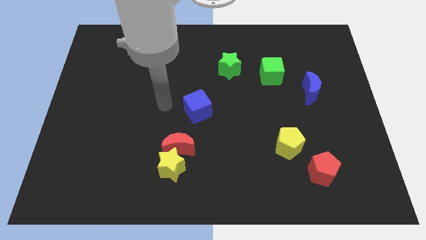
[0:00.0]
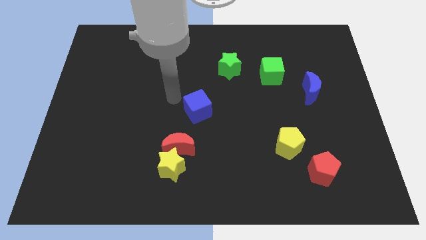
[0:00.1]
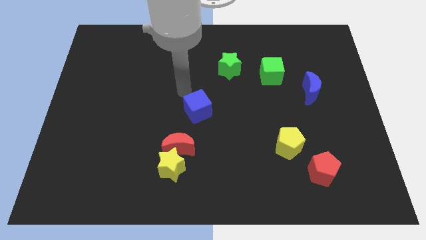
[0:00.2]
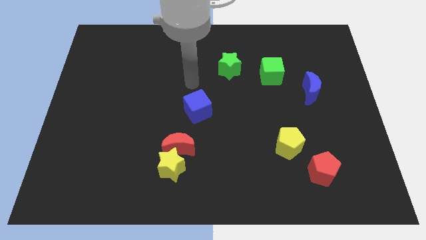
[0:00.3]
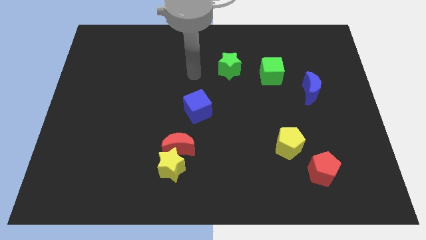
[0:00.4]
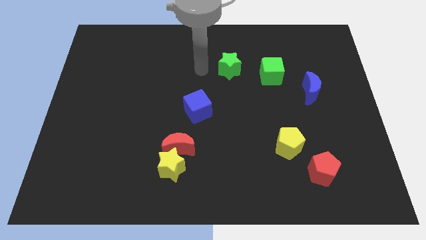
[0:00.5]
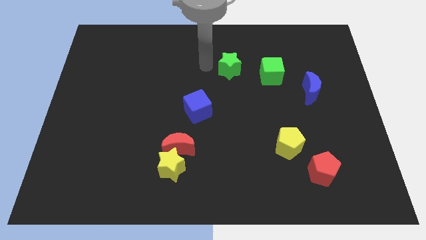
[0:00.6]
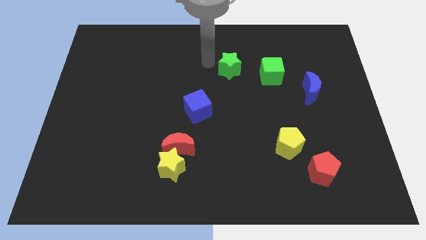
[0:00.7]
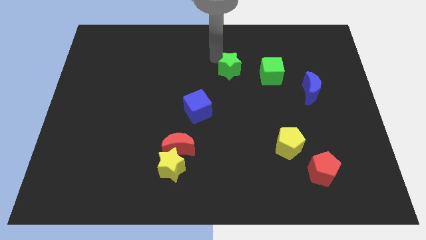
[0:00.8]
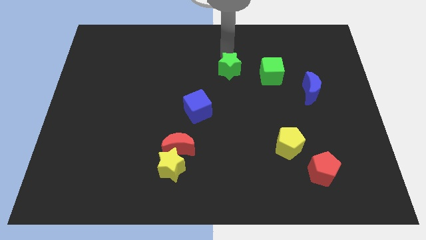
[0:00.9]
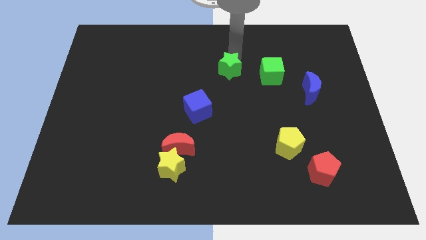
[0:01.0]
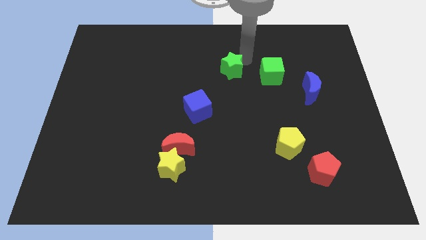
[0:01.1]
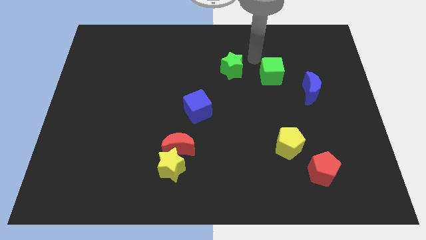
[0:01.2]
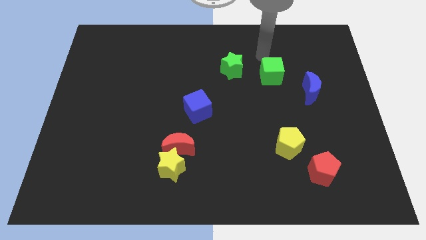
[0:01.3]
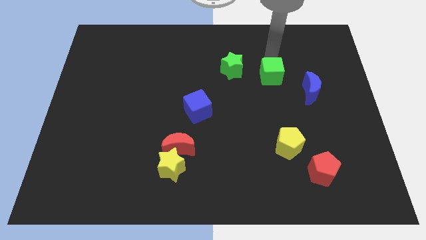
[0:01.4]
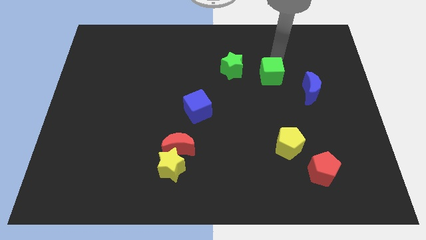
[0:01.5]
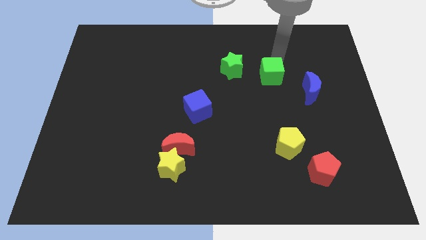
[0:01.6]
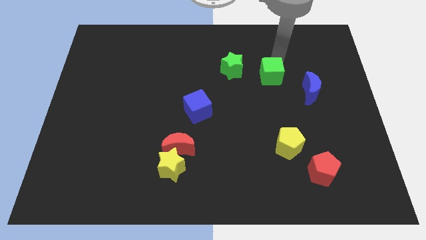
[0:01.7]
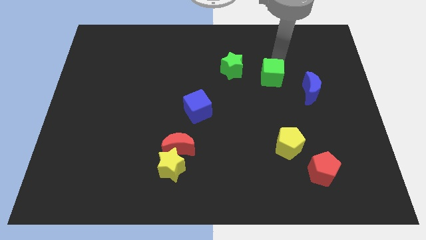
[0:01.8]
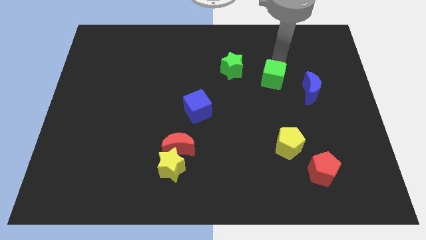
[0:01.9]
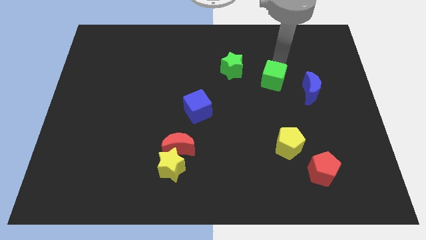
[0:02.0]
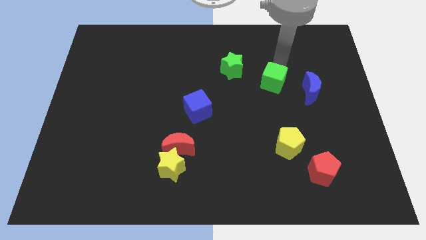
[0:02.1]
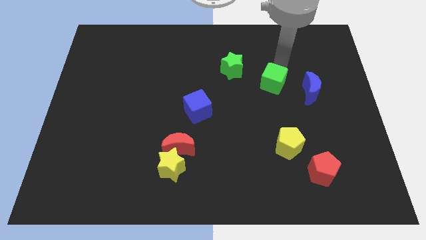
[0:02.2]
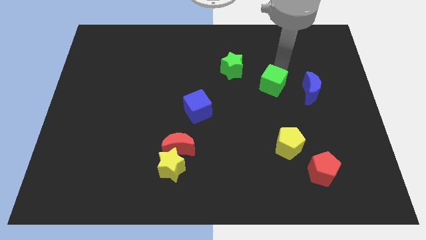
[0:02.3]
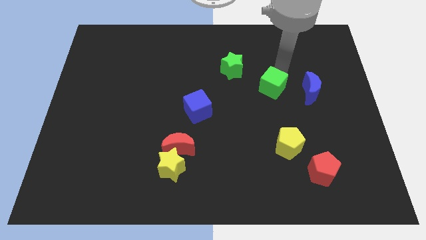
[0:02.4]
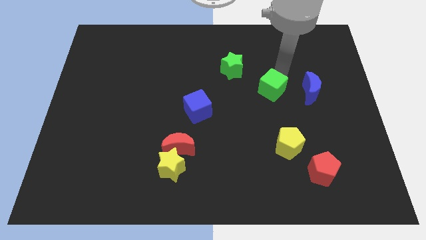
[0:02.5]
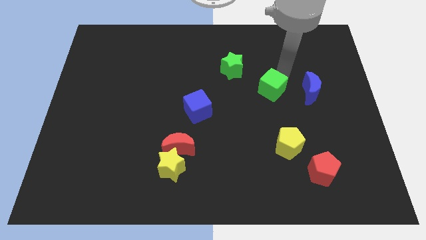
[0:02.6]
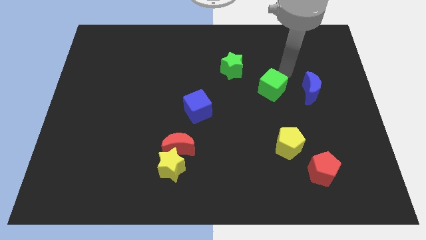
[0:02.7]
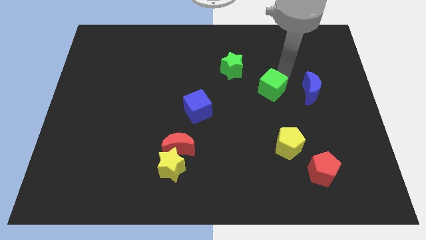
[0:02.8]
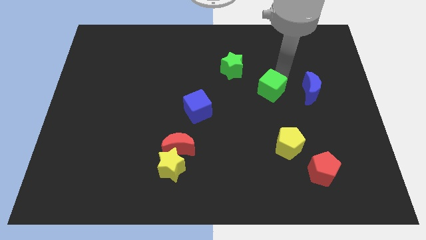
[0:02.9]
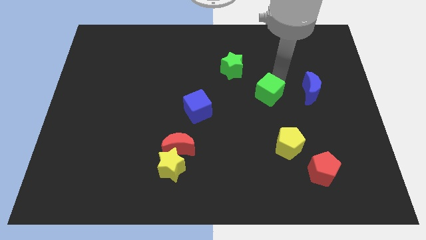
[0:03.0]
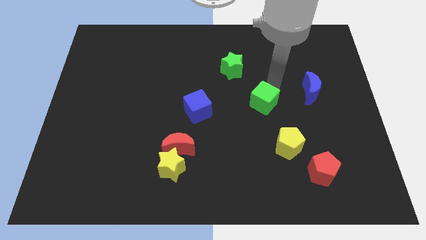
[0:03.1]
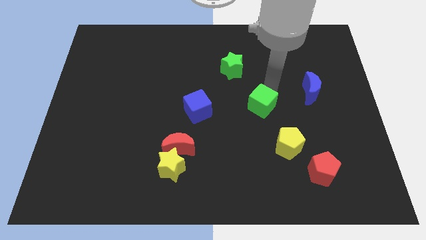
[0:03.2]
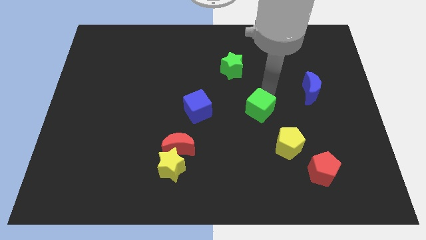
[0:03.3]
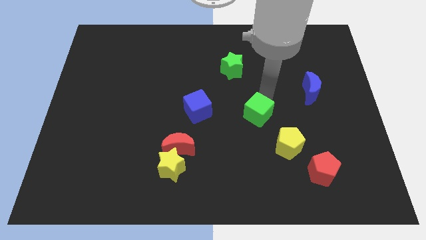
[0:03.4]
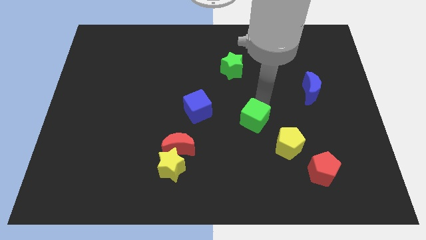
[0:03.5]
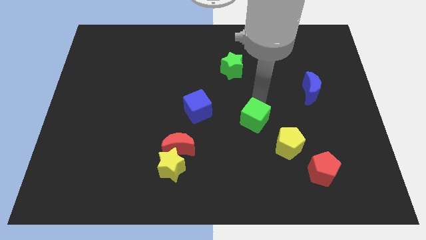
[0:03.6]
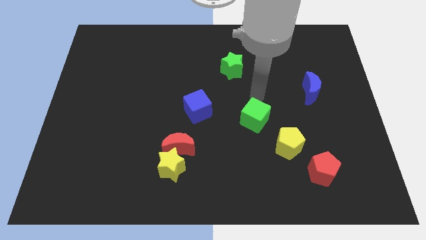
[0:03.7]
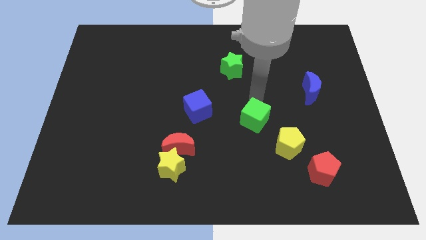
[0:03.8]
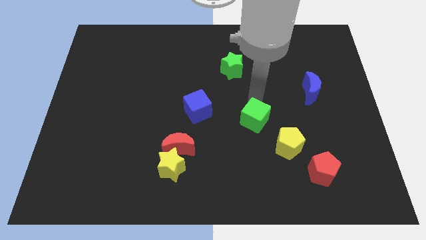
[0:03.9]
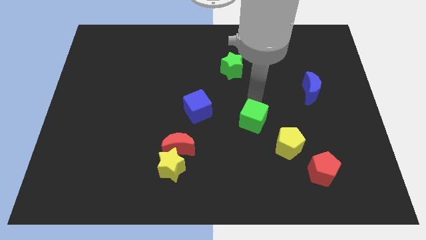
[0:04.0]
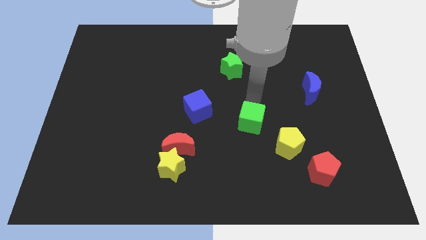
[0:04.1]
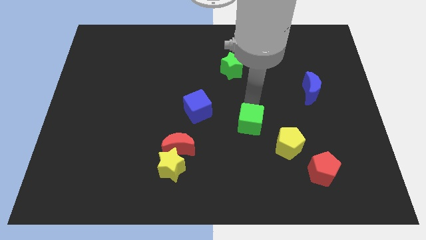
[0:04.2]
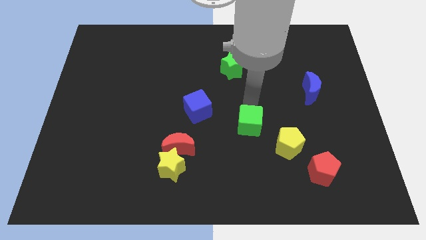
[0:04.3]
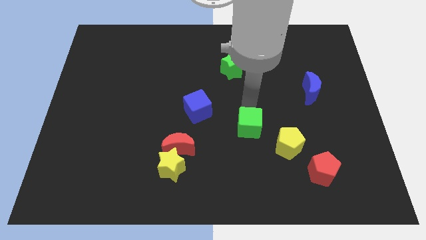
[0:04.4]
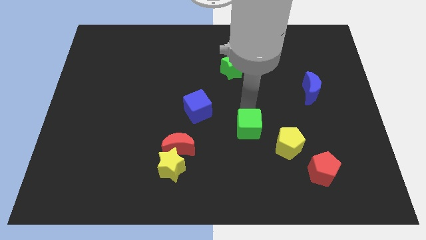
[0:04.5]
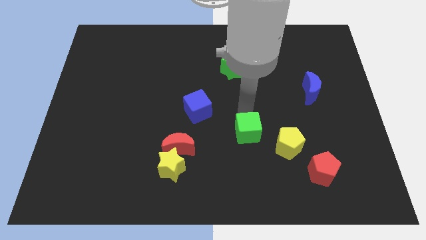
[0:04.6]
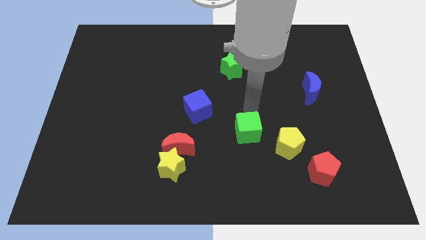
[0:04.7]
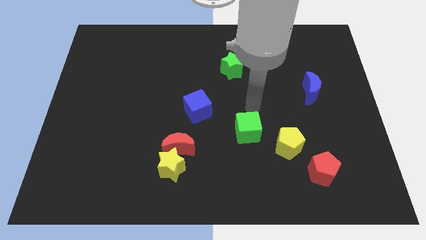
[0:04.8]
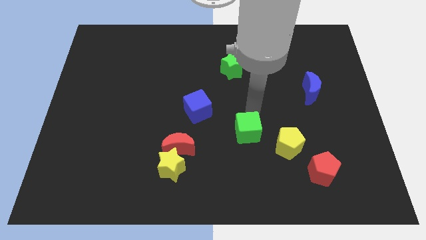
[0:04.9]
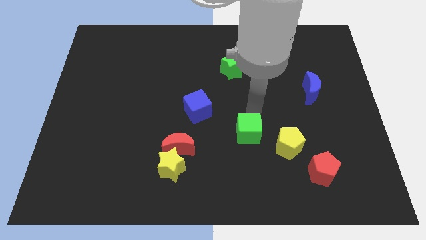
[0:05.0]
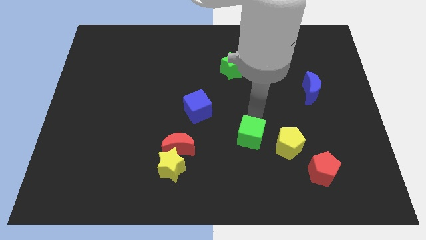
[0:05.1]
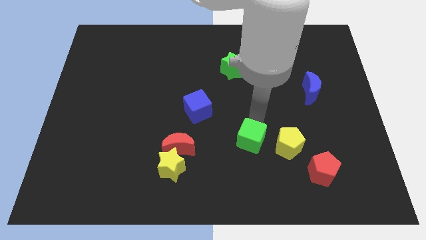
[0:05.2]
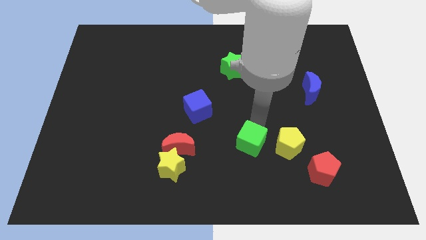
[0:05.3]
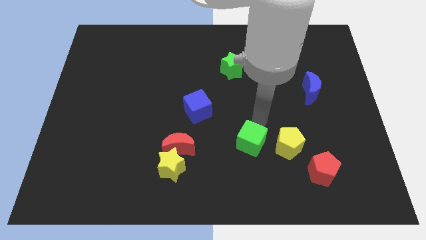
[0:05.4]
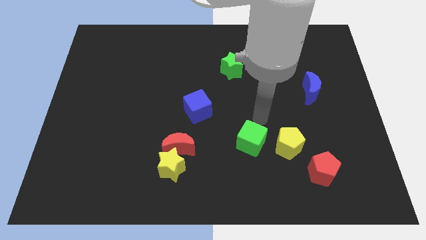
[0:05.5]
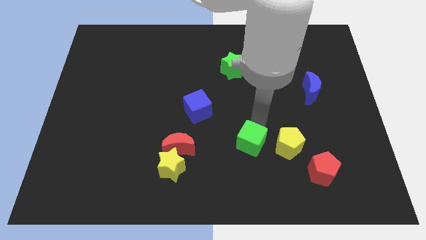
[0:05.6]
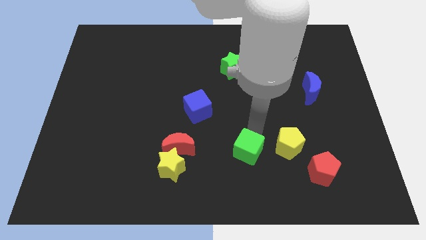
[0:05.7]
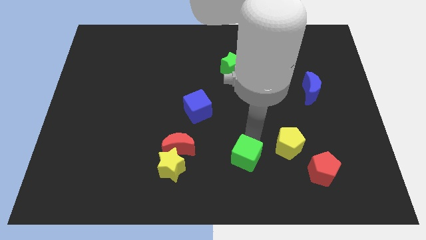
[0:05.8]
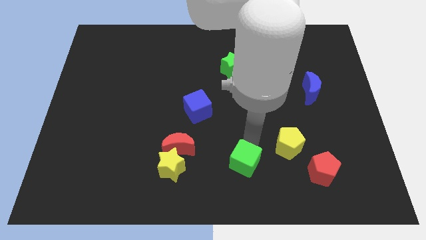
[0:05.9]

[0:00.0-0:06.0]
slide the green cube to the bottom side
